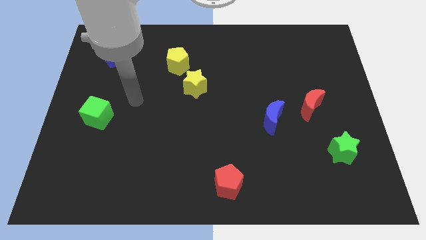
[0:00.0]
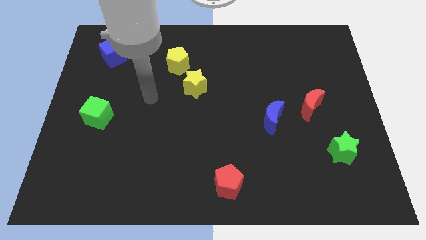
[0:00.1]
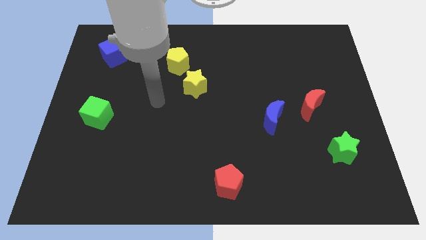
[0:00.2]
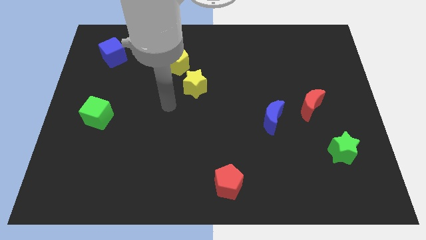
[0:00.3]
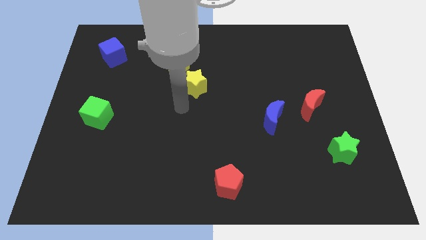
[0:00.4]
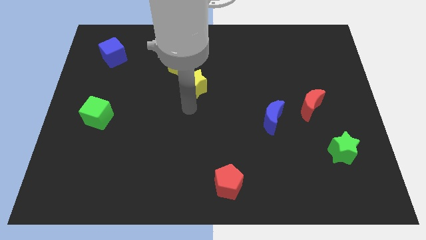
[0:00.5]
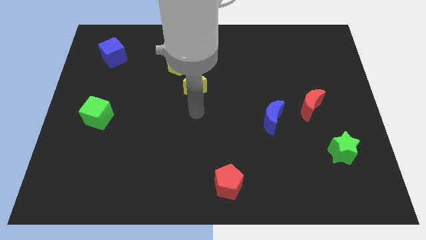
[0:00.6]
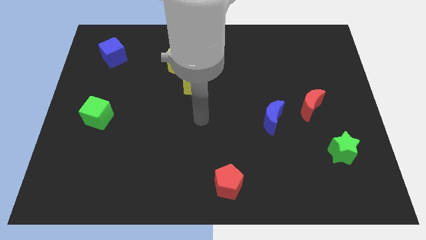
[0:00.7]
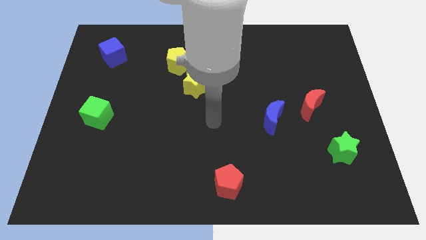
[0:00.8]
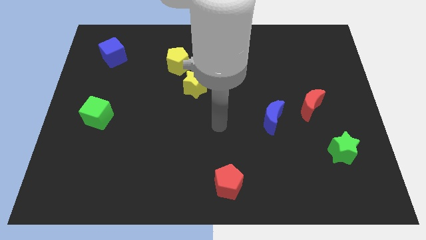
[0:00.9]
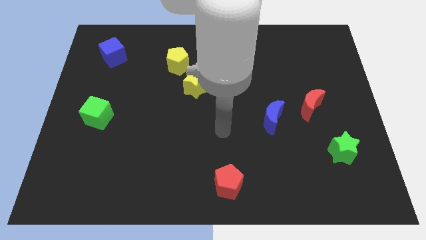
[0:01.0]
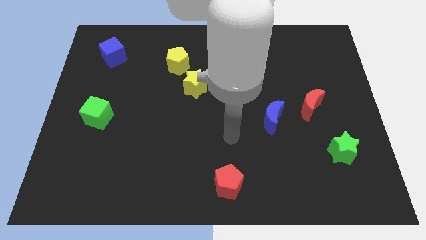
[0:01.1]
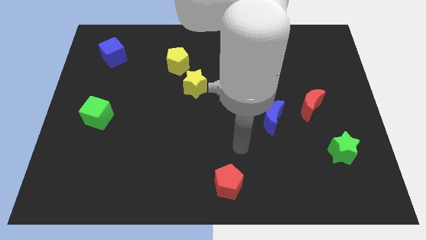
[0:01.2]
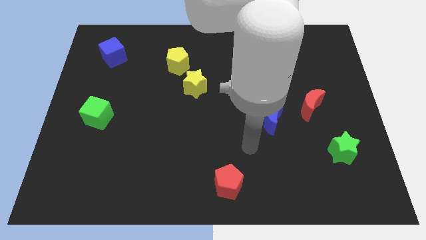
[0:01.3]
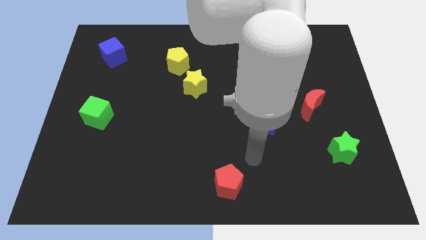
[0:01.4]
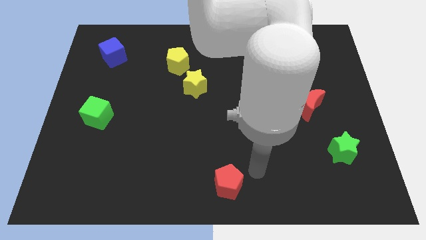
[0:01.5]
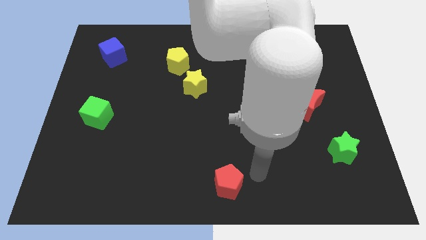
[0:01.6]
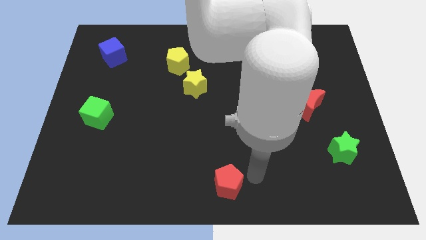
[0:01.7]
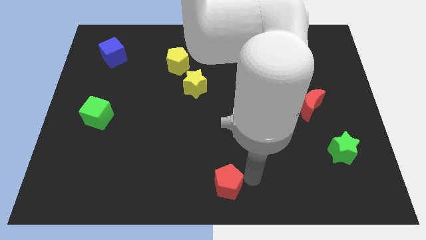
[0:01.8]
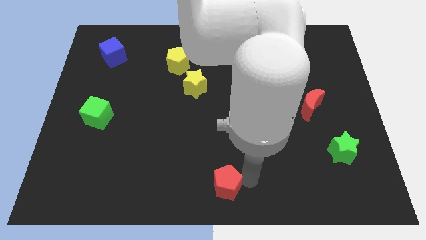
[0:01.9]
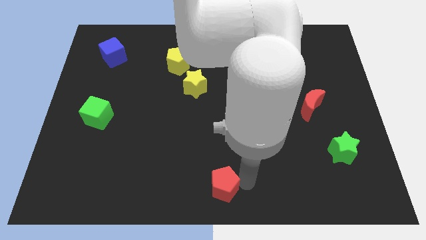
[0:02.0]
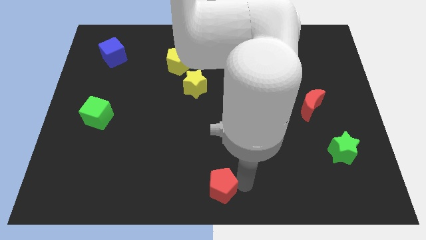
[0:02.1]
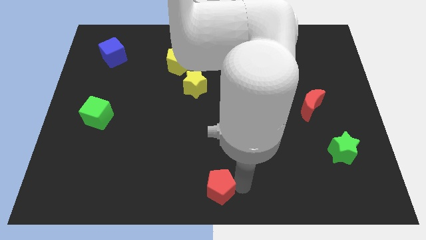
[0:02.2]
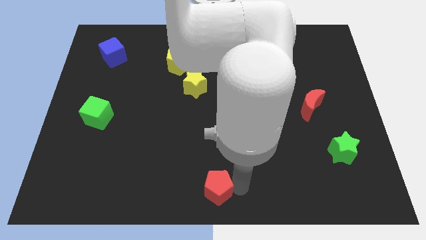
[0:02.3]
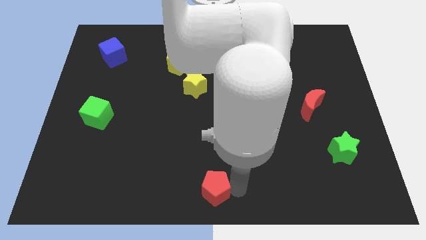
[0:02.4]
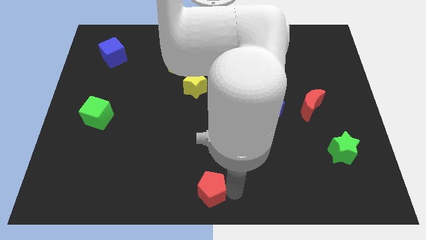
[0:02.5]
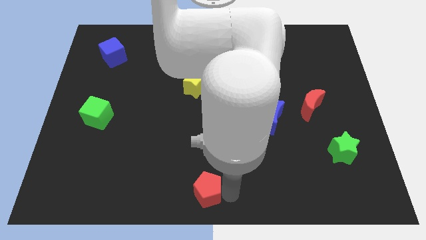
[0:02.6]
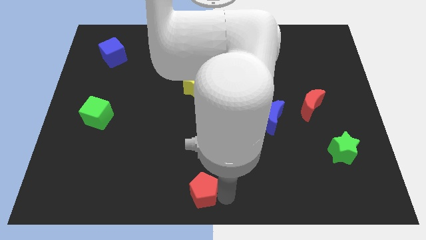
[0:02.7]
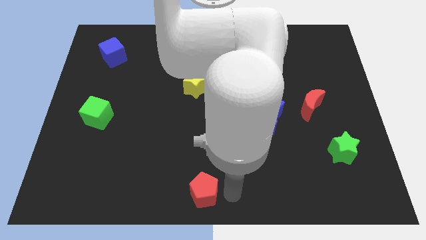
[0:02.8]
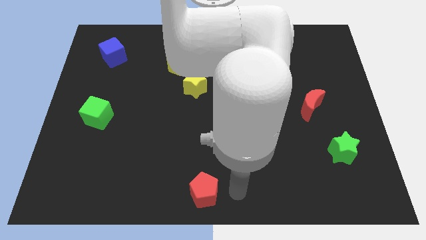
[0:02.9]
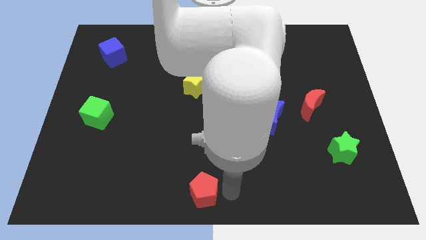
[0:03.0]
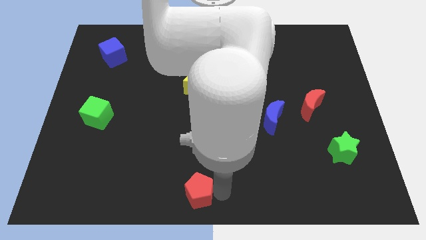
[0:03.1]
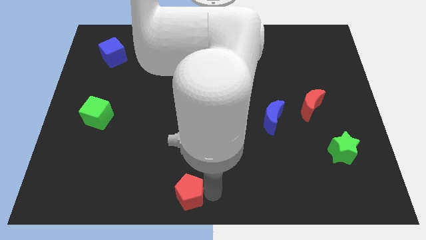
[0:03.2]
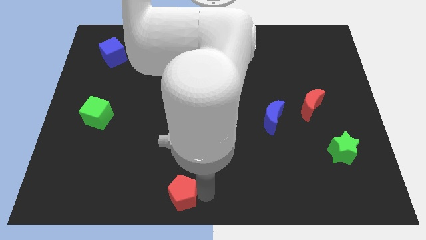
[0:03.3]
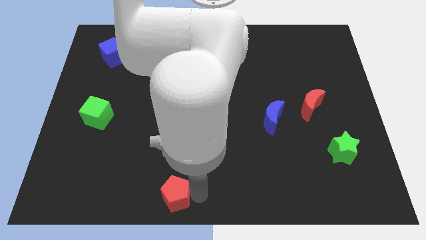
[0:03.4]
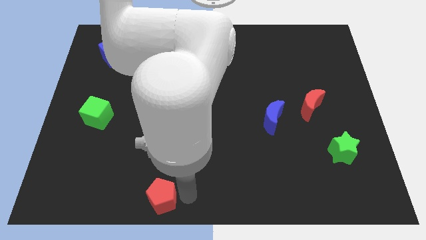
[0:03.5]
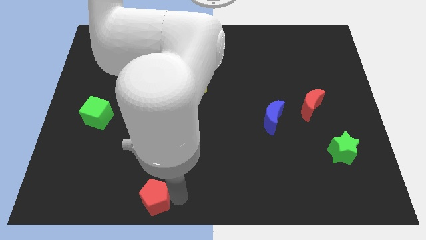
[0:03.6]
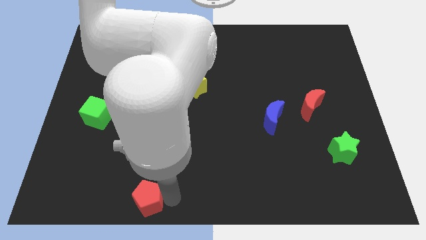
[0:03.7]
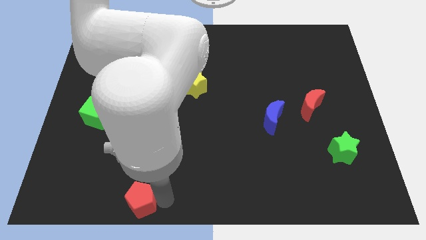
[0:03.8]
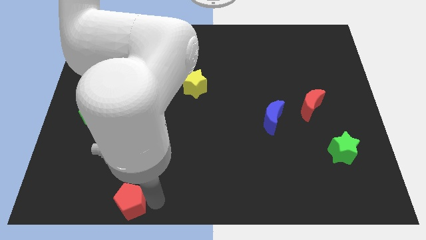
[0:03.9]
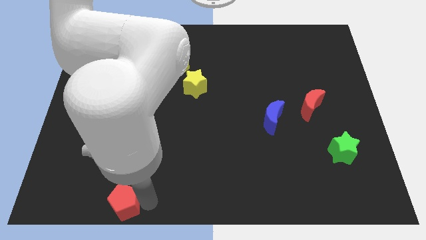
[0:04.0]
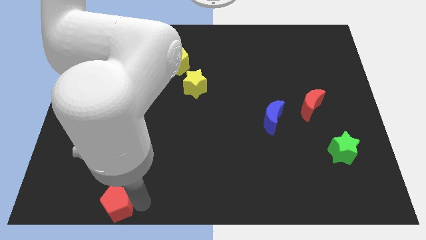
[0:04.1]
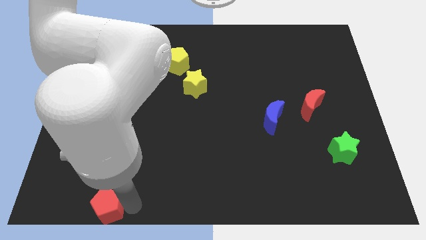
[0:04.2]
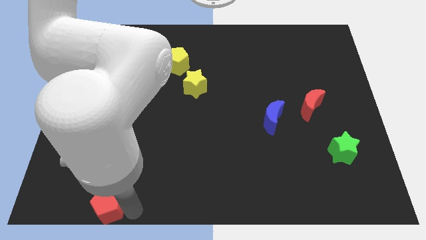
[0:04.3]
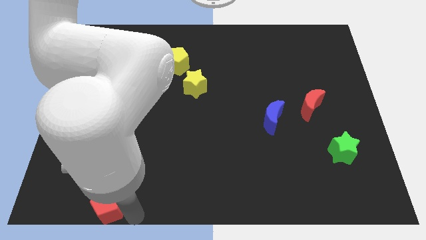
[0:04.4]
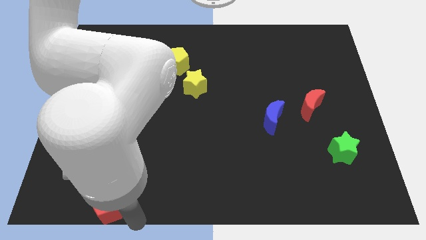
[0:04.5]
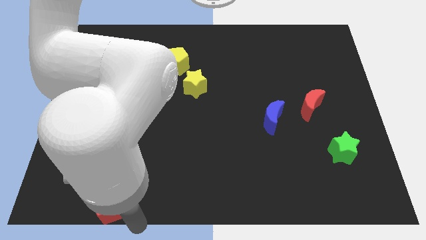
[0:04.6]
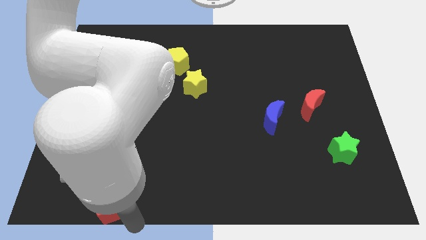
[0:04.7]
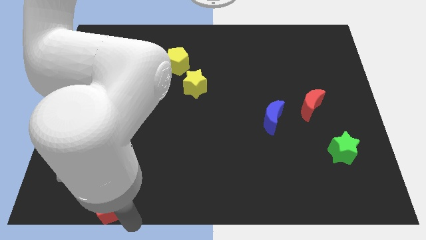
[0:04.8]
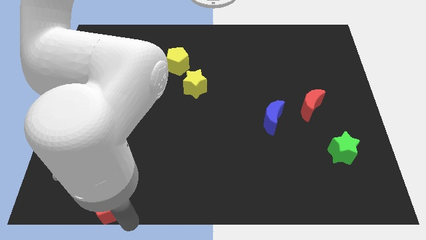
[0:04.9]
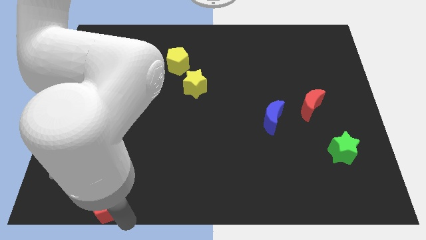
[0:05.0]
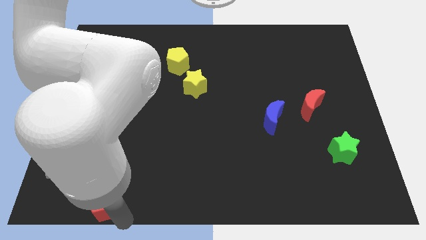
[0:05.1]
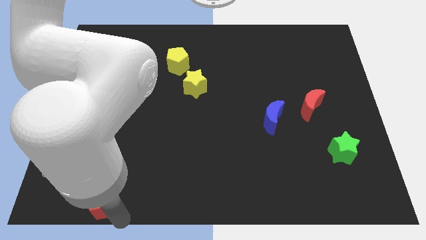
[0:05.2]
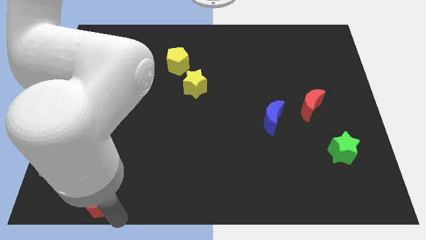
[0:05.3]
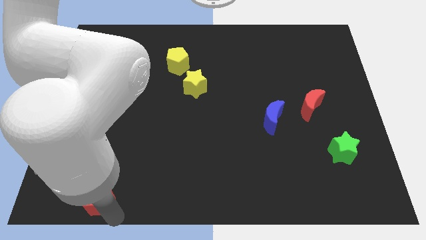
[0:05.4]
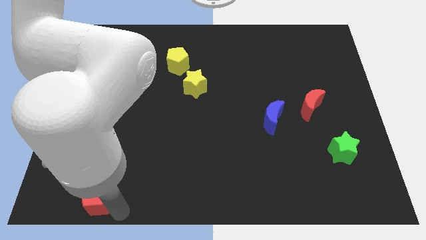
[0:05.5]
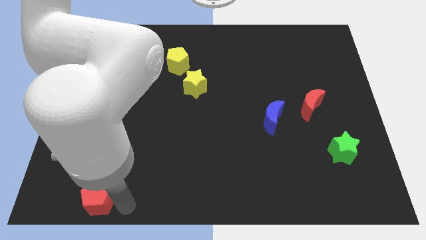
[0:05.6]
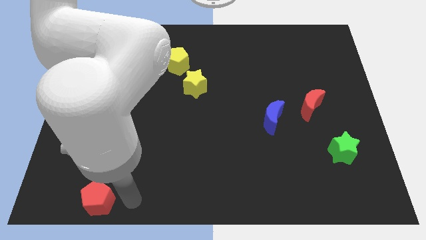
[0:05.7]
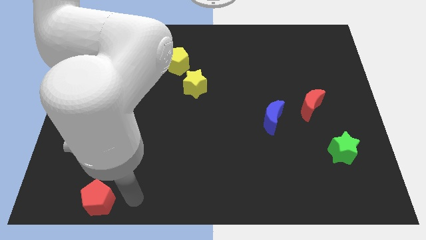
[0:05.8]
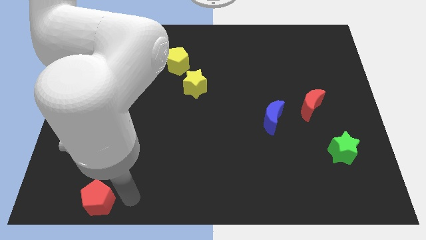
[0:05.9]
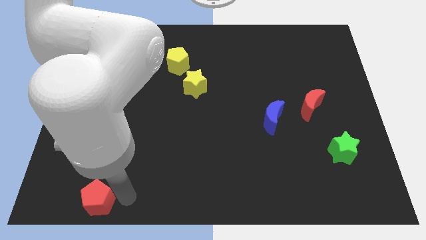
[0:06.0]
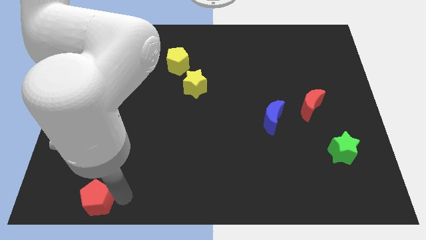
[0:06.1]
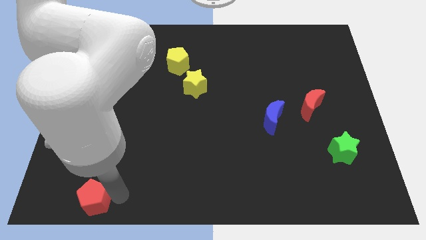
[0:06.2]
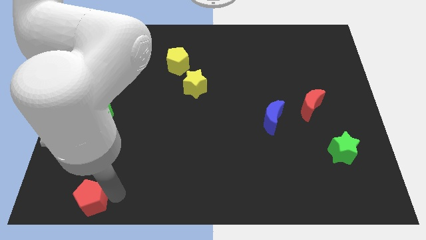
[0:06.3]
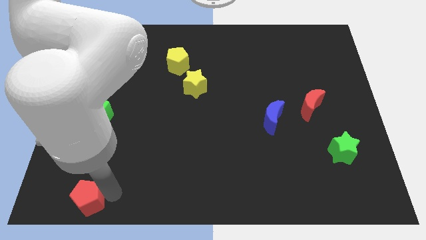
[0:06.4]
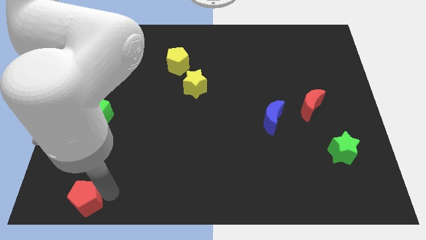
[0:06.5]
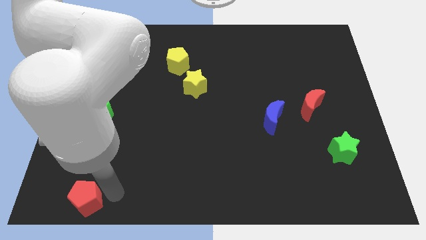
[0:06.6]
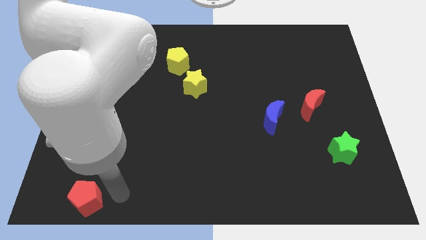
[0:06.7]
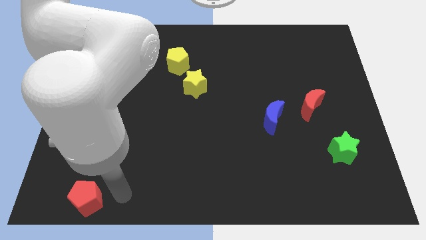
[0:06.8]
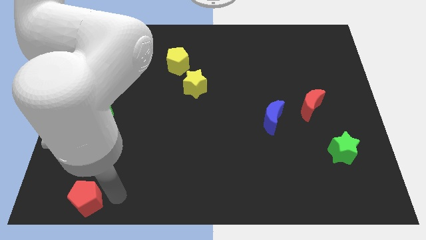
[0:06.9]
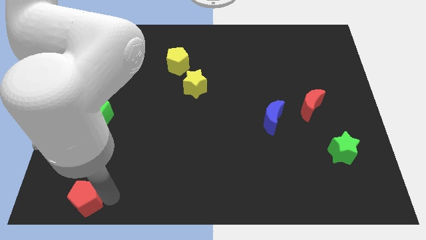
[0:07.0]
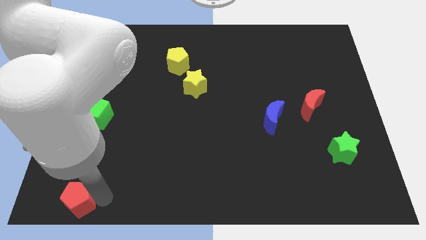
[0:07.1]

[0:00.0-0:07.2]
slide the red pentagon to the bottom left corner
